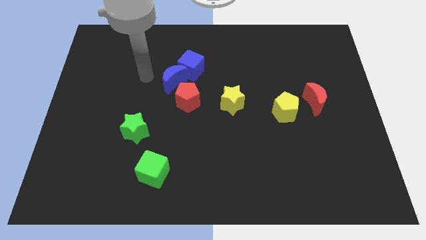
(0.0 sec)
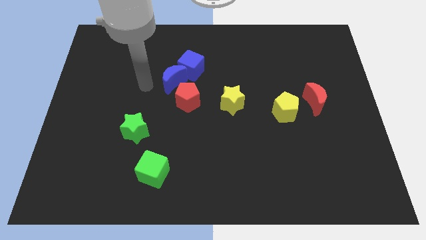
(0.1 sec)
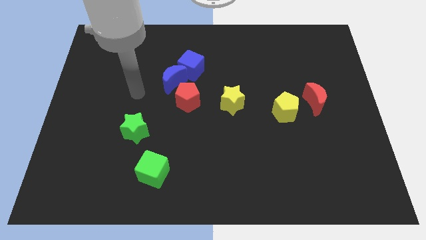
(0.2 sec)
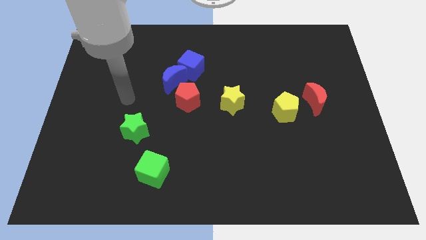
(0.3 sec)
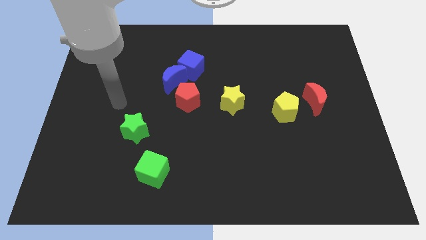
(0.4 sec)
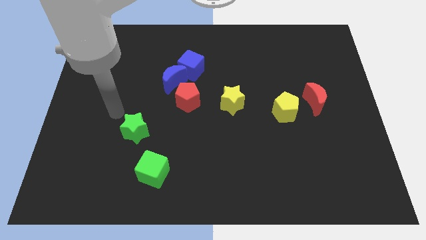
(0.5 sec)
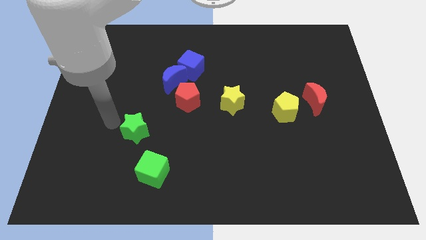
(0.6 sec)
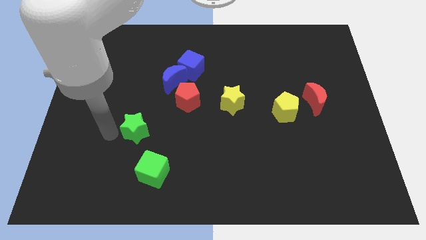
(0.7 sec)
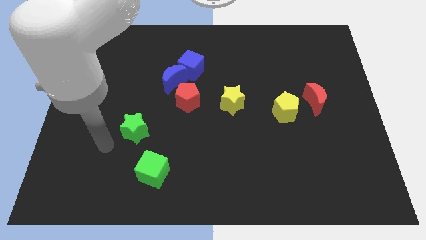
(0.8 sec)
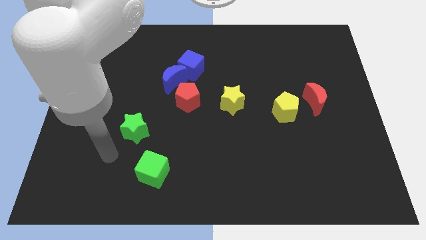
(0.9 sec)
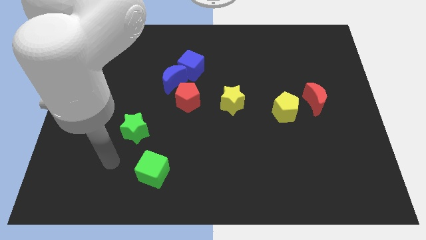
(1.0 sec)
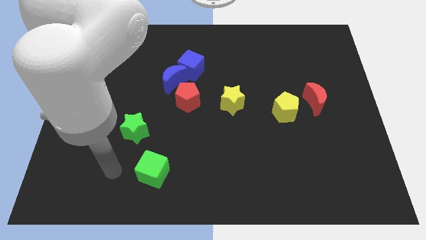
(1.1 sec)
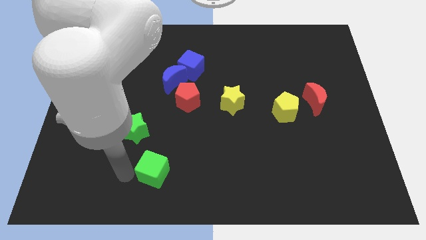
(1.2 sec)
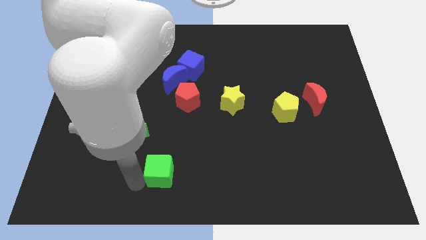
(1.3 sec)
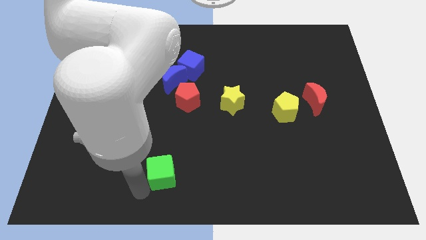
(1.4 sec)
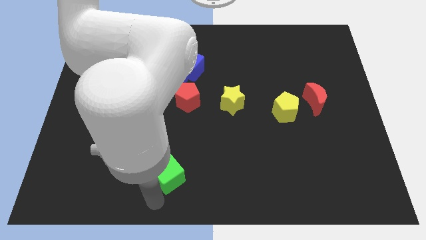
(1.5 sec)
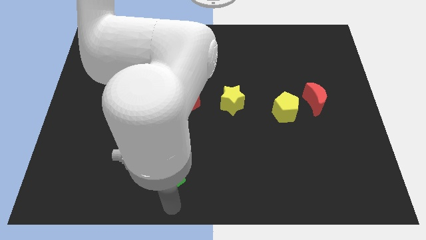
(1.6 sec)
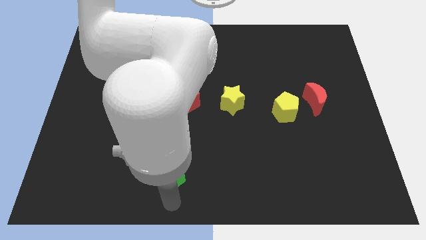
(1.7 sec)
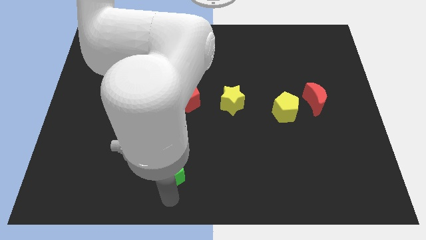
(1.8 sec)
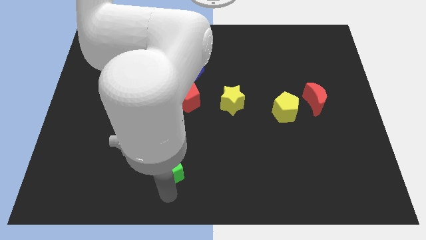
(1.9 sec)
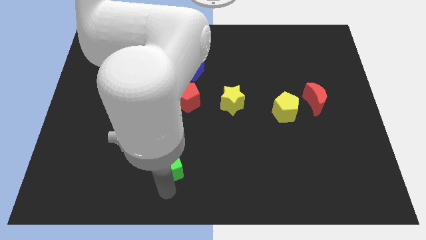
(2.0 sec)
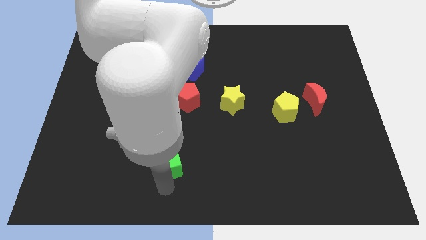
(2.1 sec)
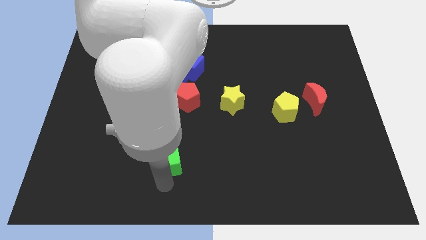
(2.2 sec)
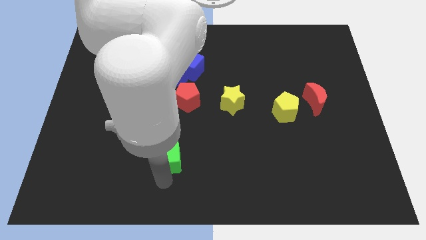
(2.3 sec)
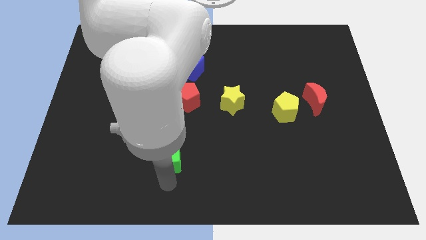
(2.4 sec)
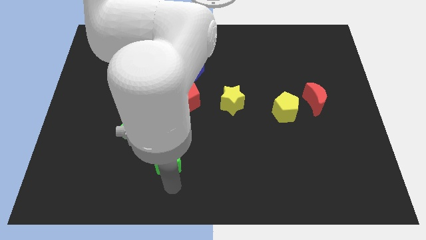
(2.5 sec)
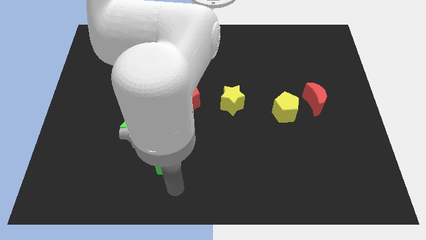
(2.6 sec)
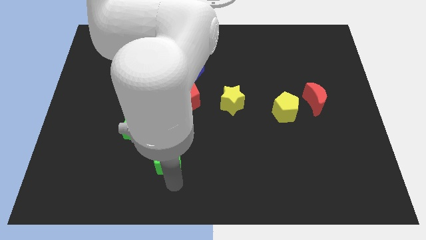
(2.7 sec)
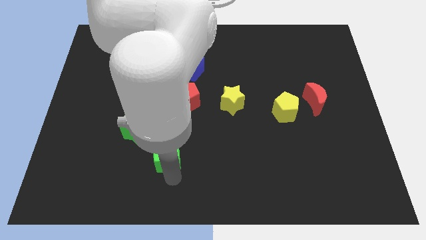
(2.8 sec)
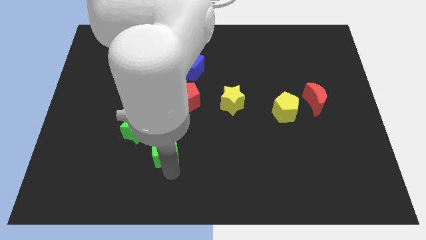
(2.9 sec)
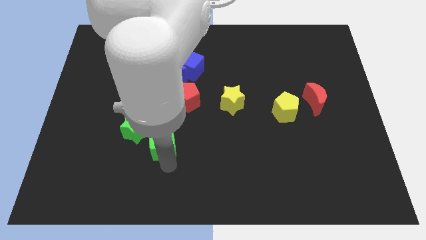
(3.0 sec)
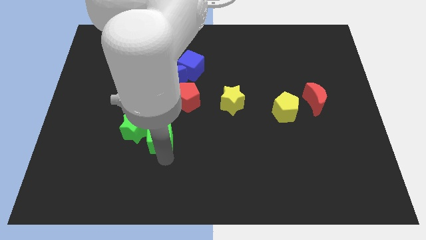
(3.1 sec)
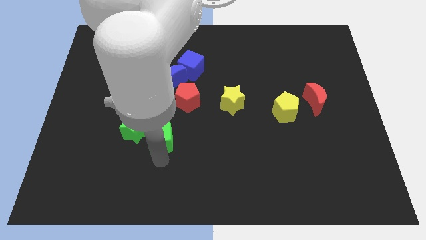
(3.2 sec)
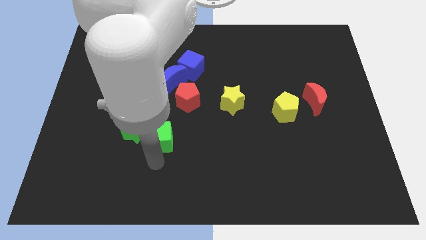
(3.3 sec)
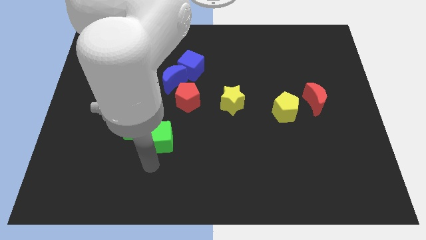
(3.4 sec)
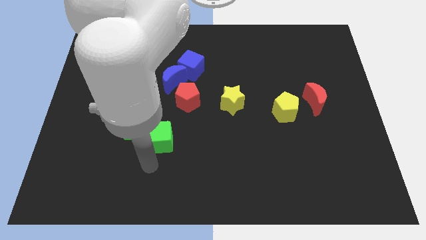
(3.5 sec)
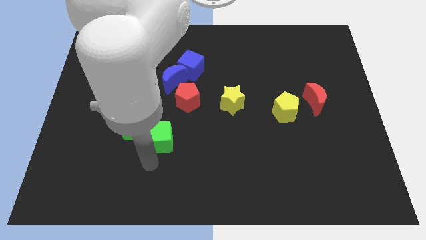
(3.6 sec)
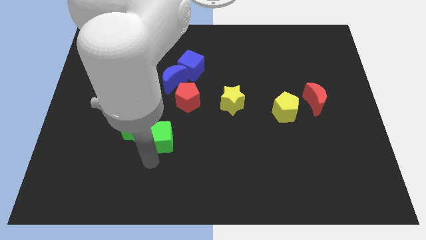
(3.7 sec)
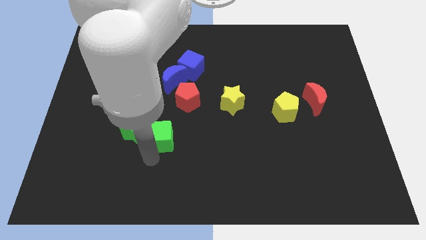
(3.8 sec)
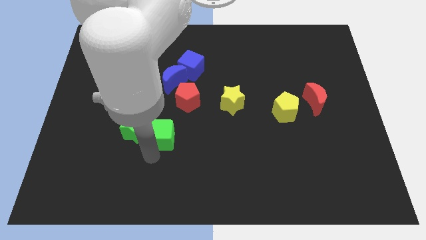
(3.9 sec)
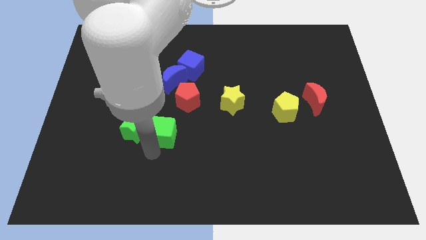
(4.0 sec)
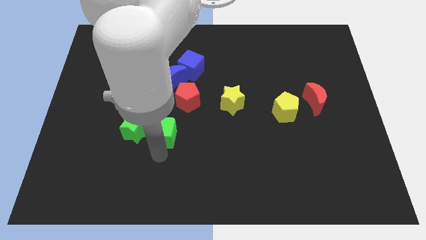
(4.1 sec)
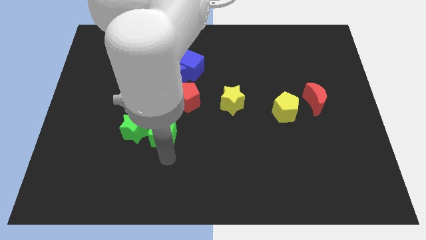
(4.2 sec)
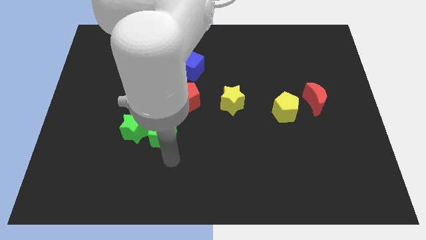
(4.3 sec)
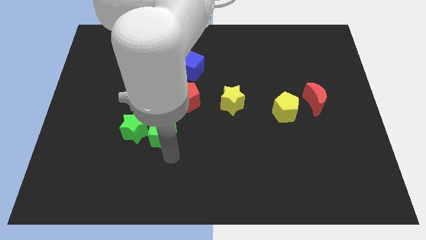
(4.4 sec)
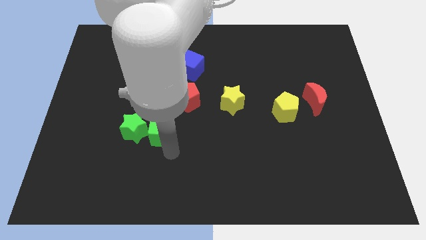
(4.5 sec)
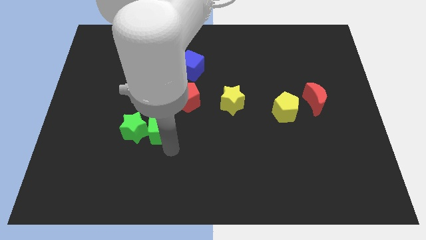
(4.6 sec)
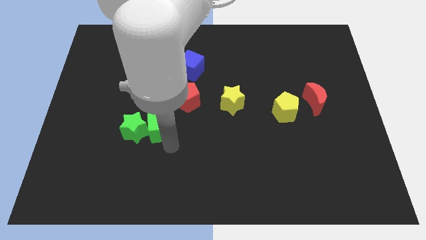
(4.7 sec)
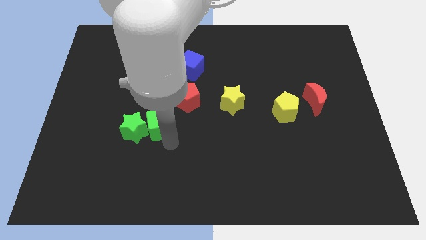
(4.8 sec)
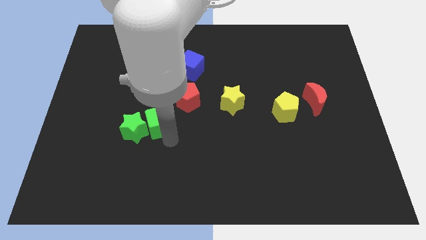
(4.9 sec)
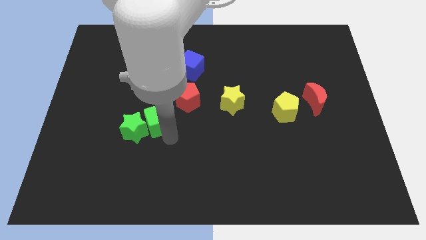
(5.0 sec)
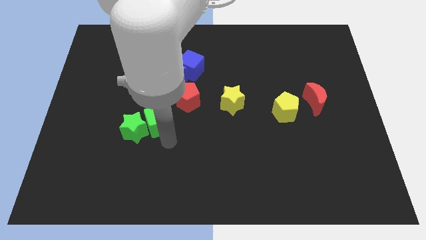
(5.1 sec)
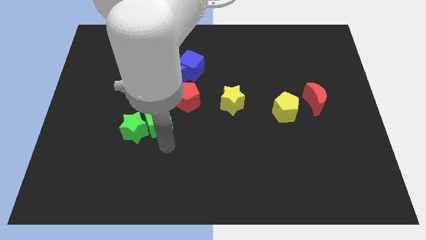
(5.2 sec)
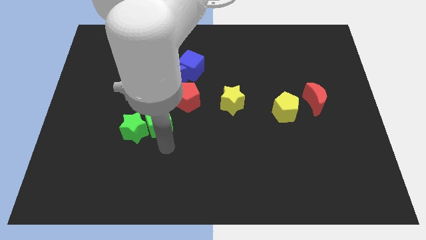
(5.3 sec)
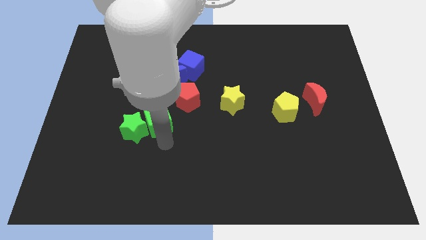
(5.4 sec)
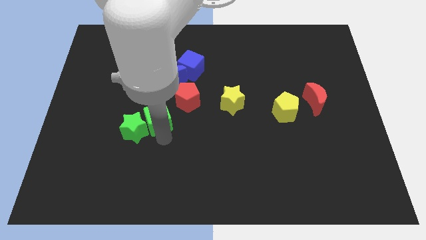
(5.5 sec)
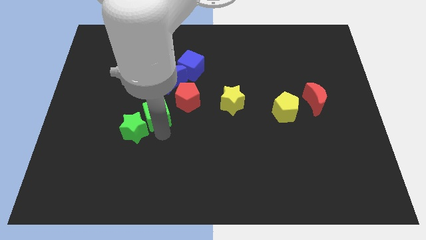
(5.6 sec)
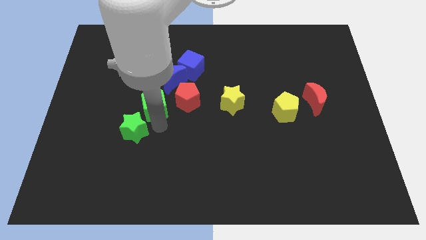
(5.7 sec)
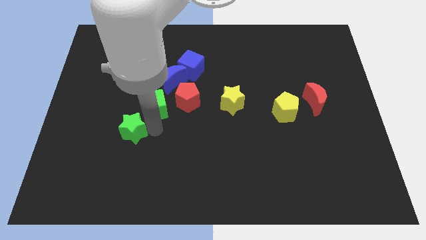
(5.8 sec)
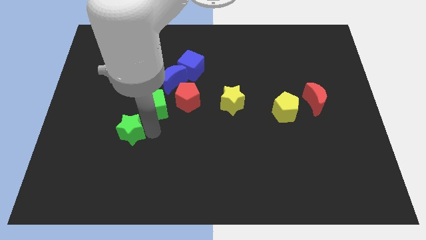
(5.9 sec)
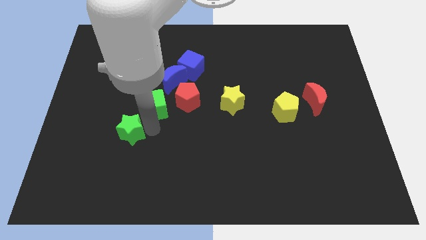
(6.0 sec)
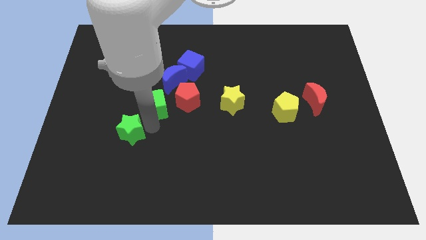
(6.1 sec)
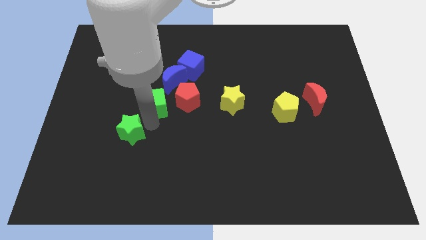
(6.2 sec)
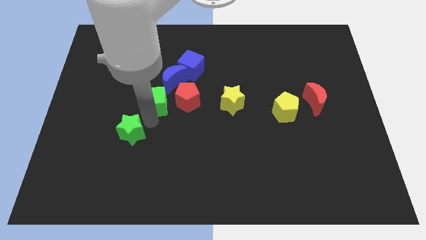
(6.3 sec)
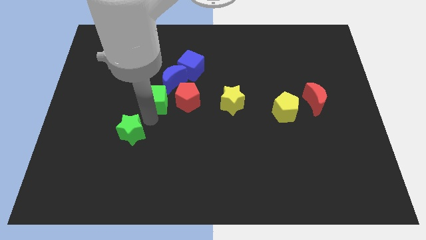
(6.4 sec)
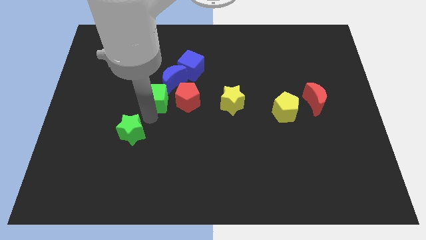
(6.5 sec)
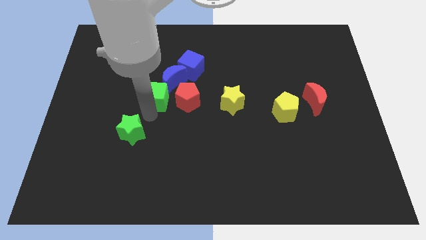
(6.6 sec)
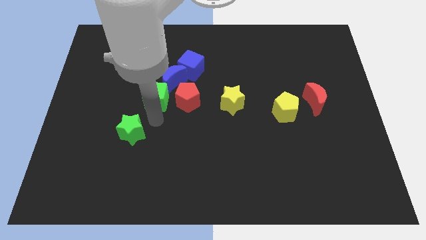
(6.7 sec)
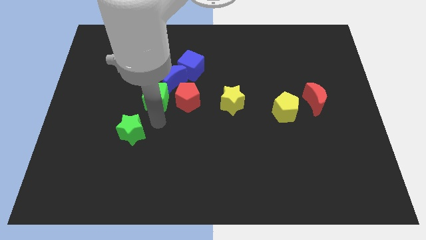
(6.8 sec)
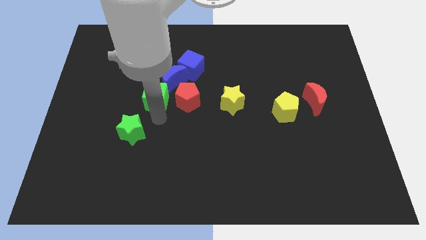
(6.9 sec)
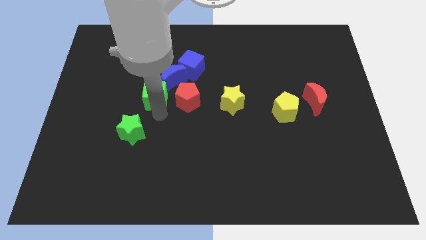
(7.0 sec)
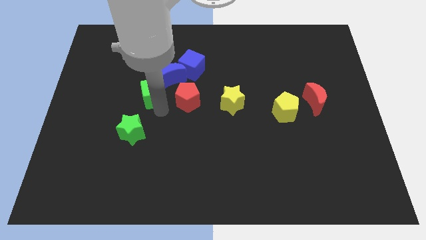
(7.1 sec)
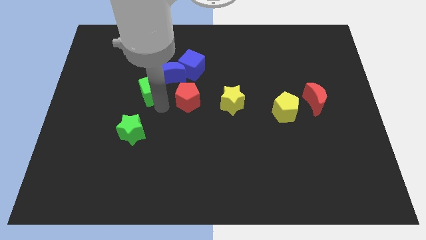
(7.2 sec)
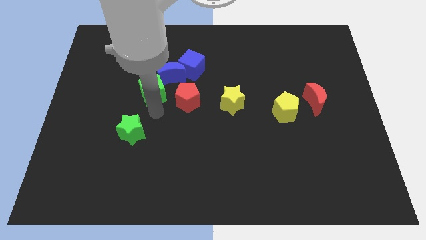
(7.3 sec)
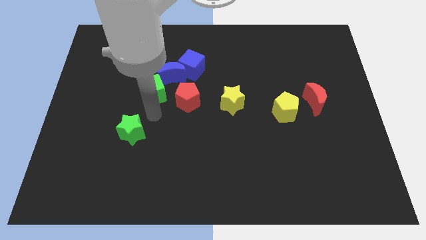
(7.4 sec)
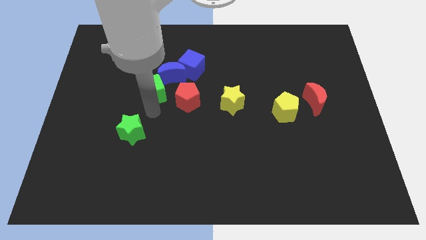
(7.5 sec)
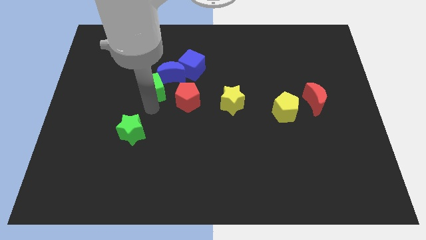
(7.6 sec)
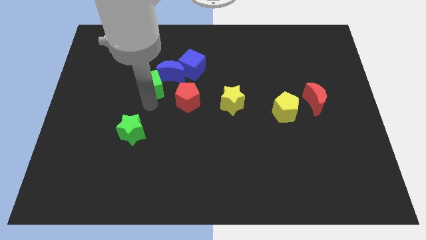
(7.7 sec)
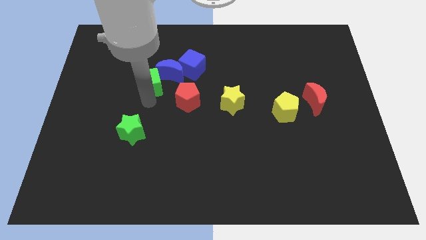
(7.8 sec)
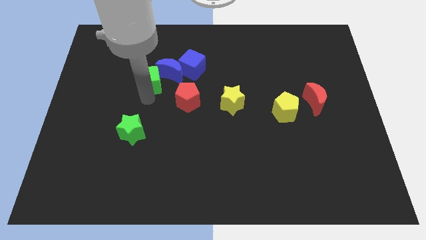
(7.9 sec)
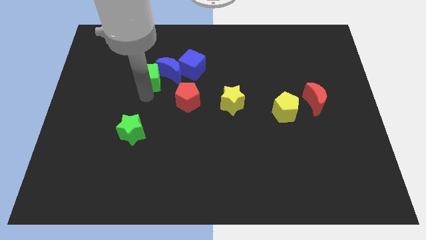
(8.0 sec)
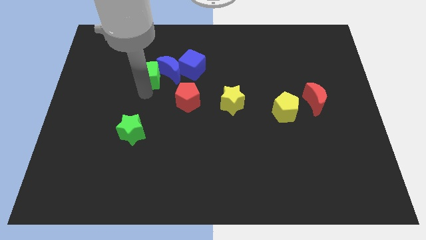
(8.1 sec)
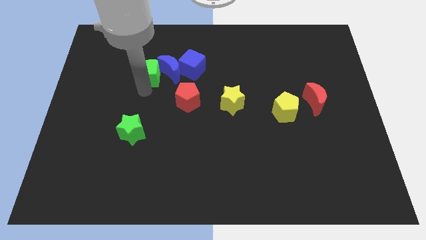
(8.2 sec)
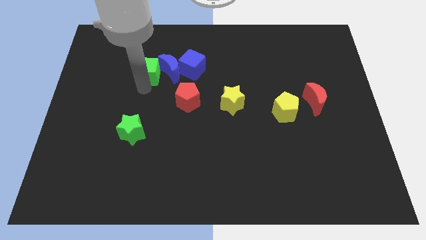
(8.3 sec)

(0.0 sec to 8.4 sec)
slide the green cube diagonally up and to the left of the blue moon
